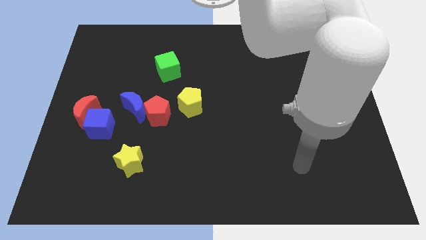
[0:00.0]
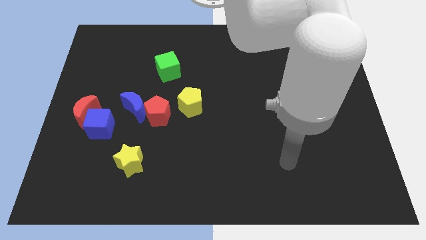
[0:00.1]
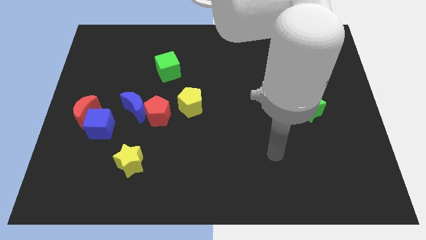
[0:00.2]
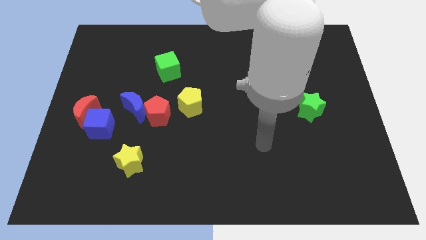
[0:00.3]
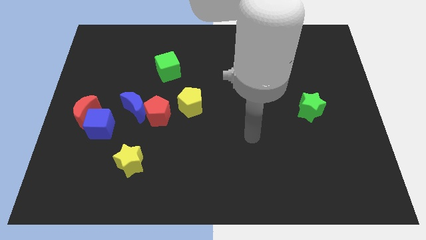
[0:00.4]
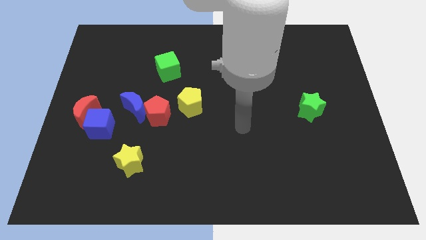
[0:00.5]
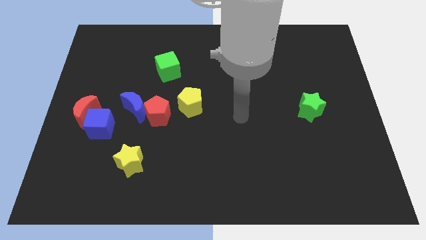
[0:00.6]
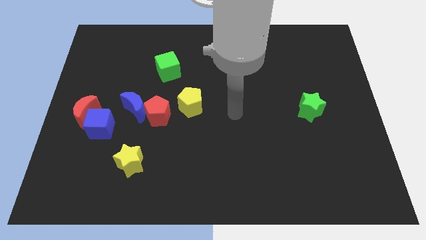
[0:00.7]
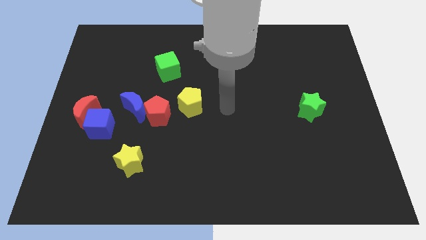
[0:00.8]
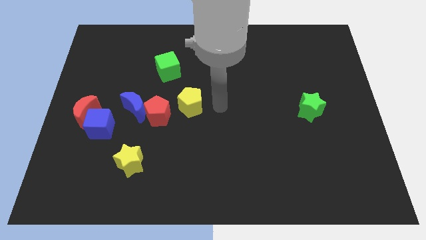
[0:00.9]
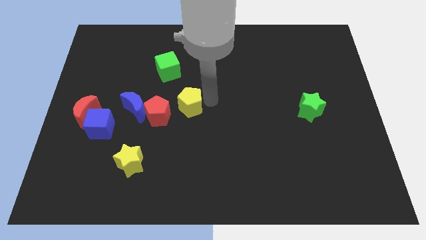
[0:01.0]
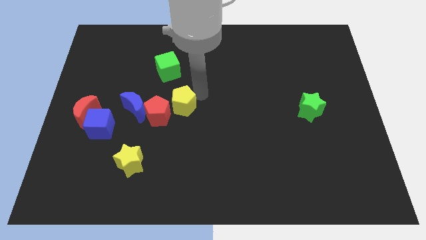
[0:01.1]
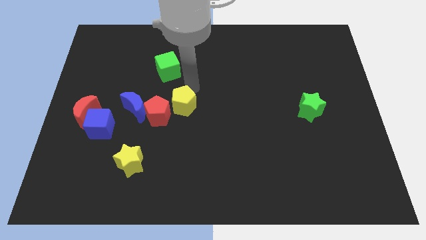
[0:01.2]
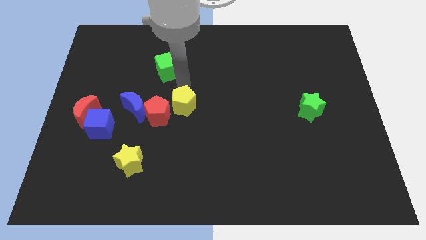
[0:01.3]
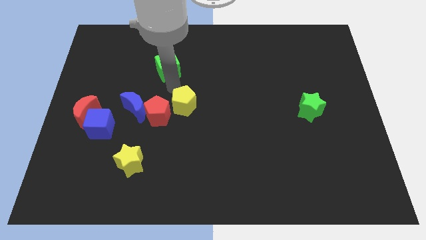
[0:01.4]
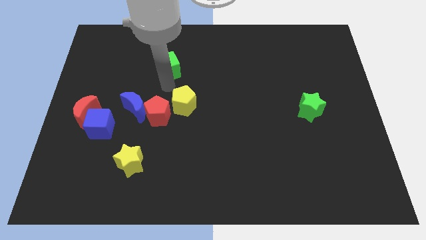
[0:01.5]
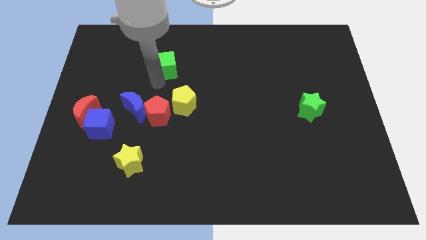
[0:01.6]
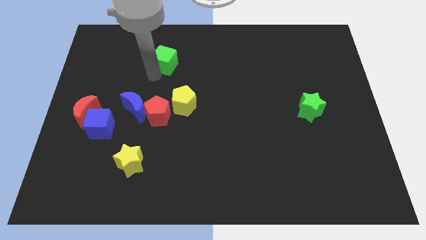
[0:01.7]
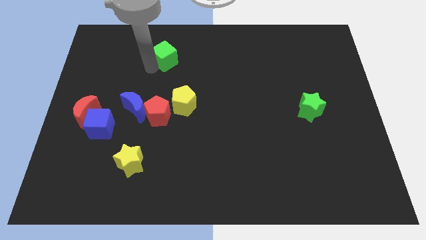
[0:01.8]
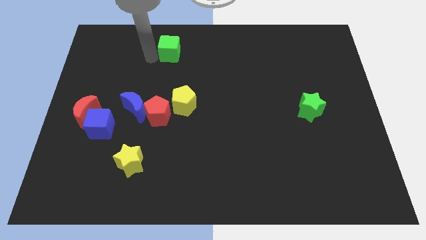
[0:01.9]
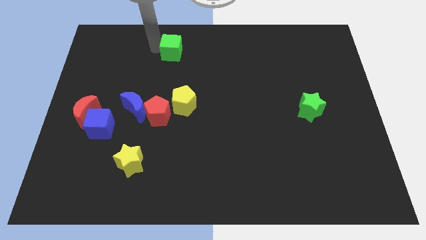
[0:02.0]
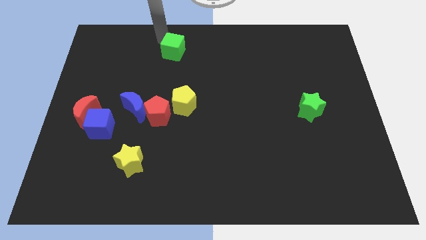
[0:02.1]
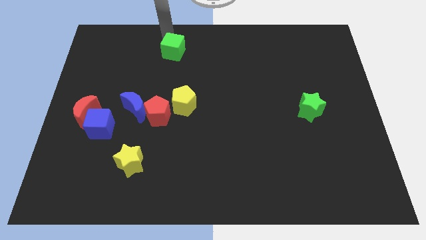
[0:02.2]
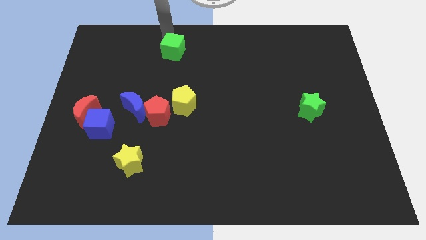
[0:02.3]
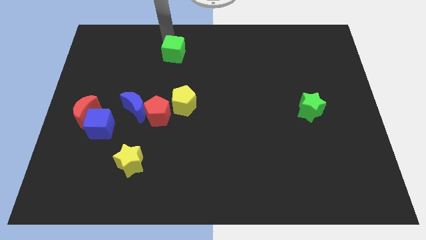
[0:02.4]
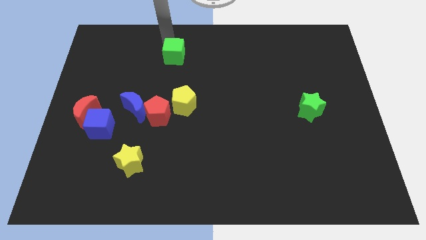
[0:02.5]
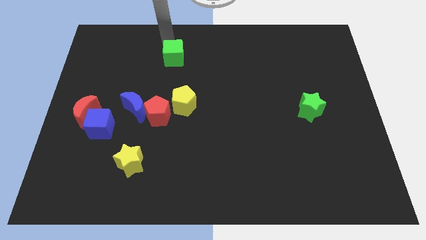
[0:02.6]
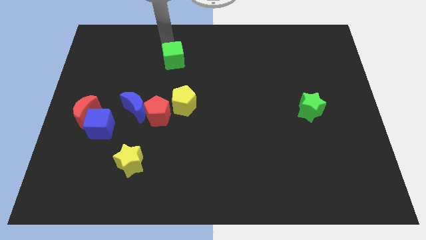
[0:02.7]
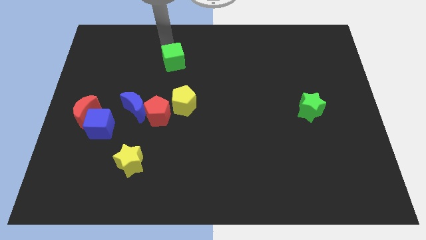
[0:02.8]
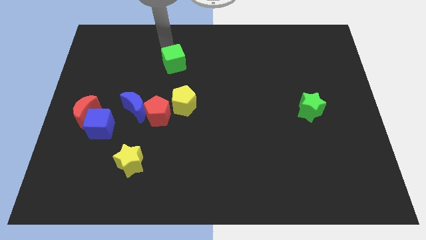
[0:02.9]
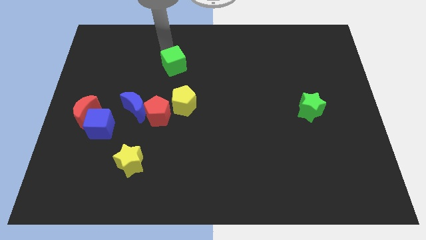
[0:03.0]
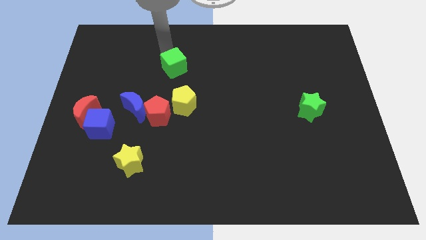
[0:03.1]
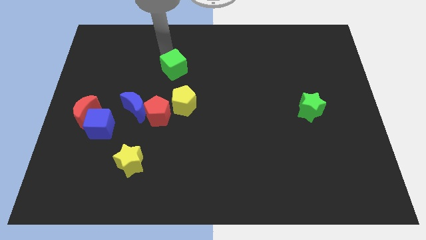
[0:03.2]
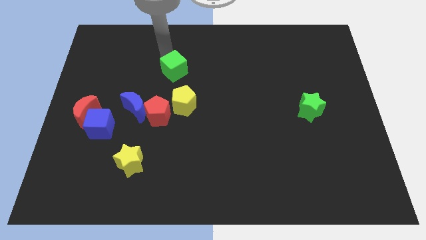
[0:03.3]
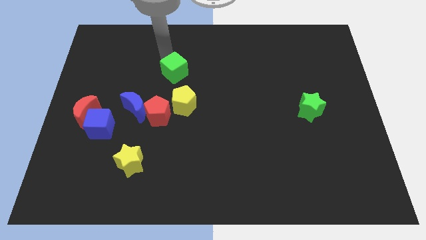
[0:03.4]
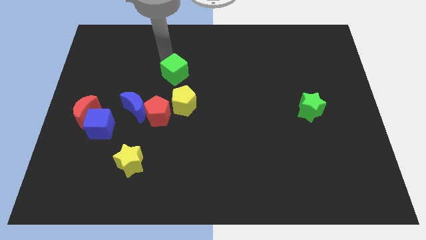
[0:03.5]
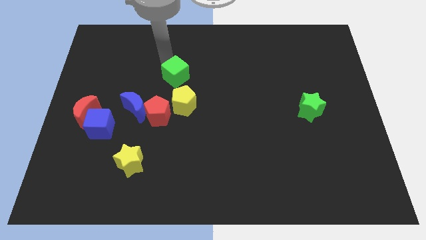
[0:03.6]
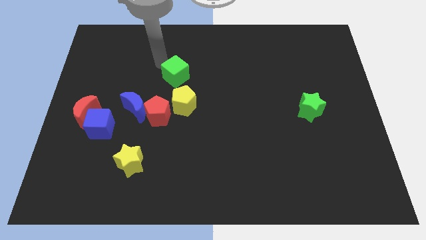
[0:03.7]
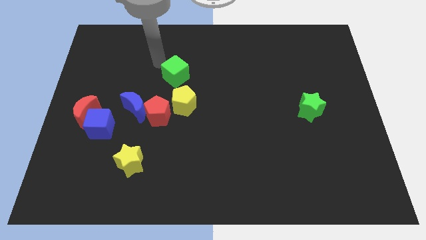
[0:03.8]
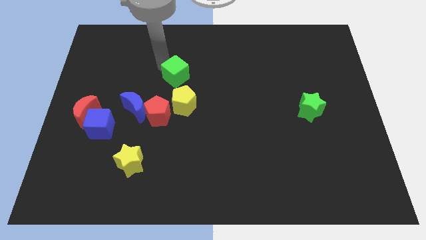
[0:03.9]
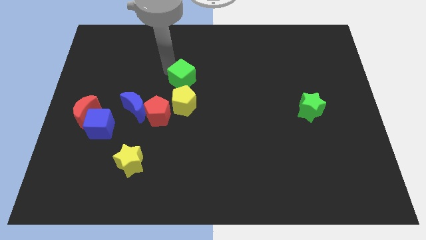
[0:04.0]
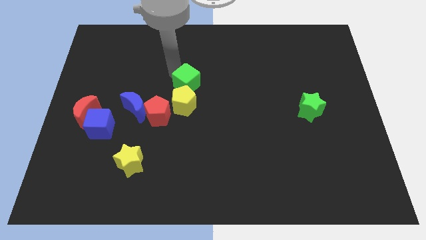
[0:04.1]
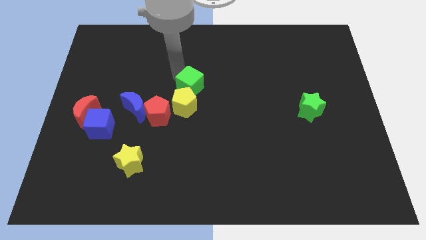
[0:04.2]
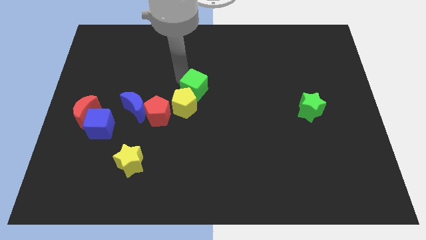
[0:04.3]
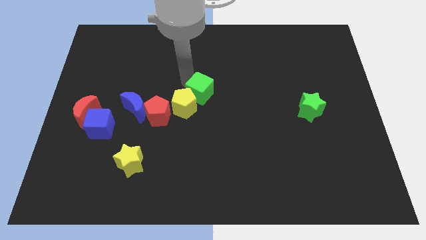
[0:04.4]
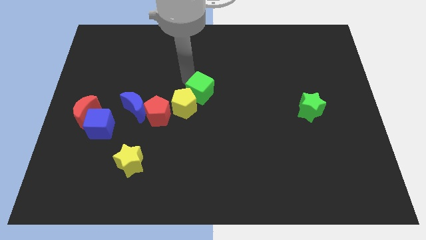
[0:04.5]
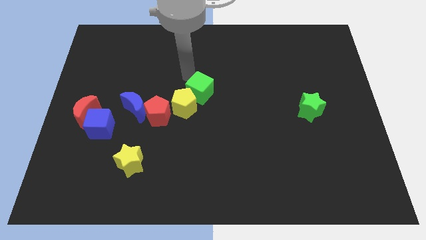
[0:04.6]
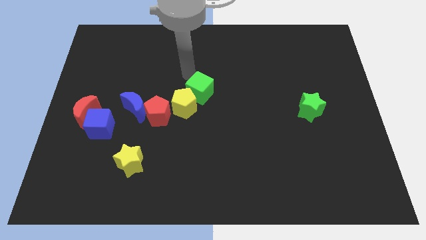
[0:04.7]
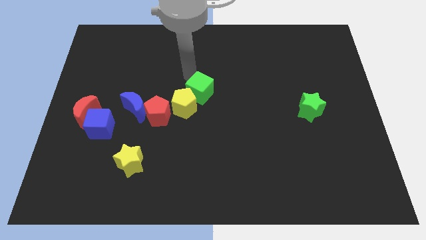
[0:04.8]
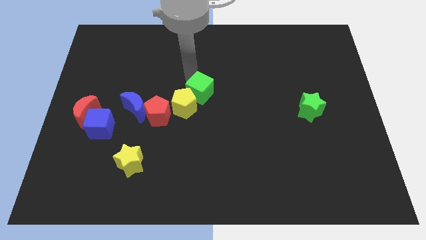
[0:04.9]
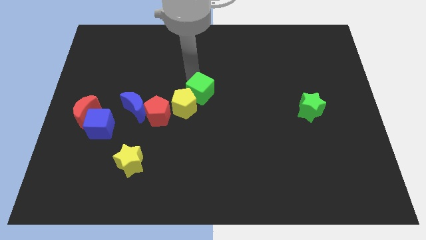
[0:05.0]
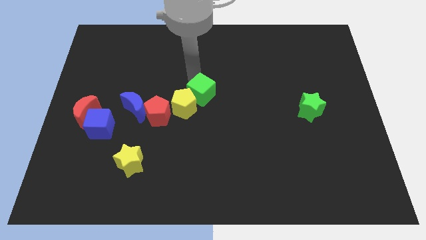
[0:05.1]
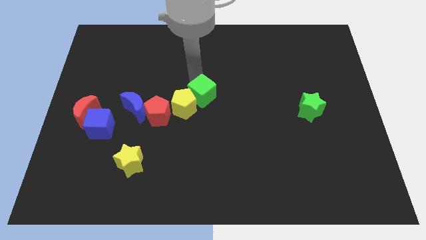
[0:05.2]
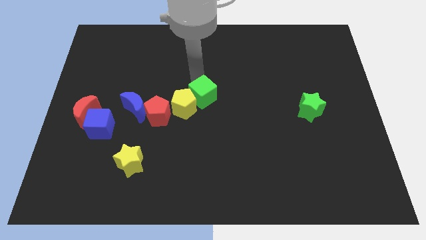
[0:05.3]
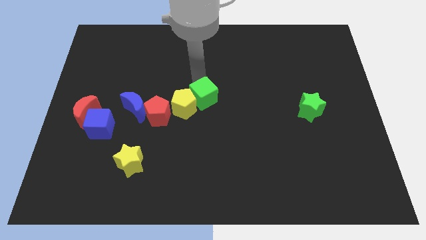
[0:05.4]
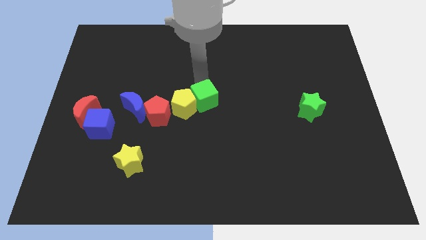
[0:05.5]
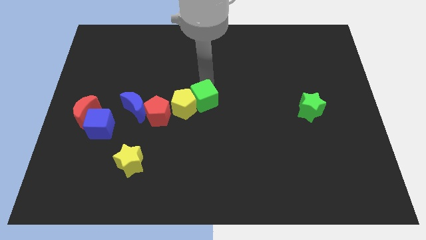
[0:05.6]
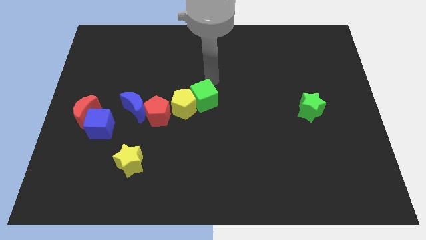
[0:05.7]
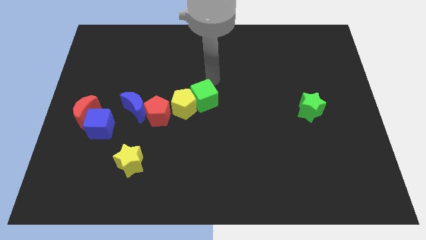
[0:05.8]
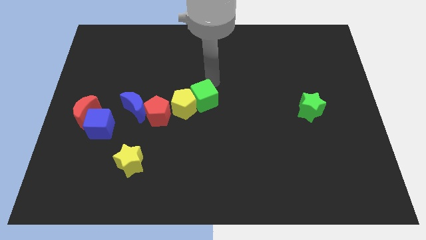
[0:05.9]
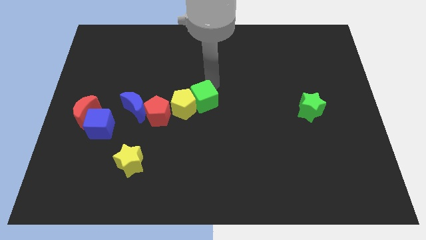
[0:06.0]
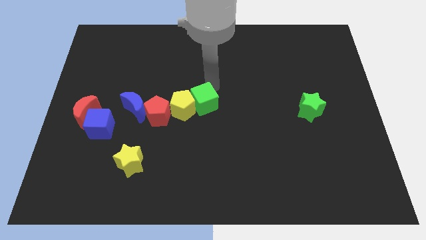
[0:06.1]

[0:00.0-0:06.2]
slightly push the green cube down

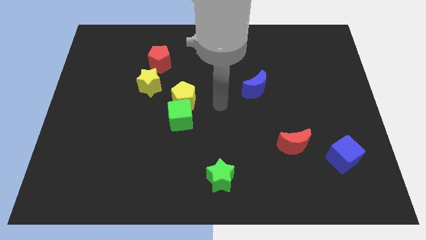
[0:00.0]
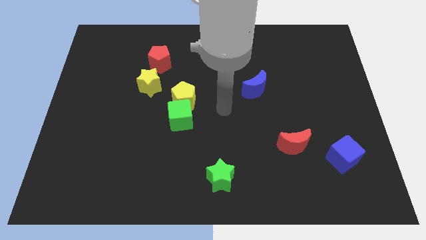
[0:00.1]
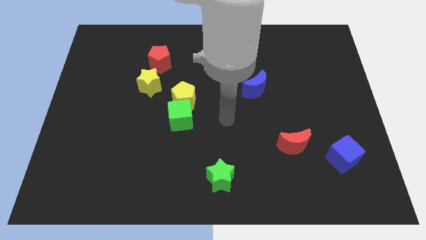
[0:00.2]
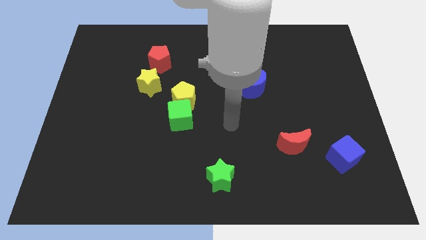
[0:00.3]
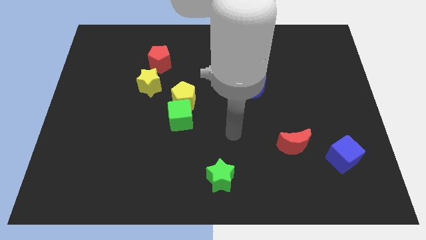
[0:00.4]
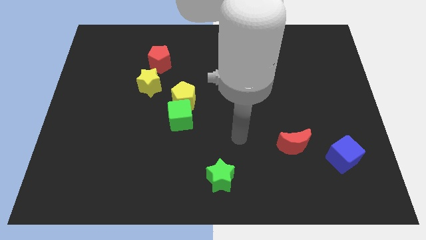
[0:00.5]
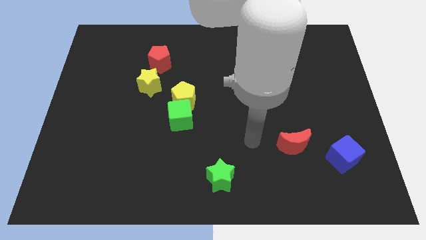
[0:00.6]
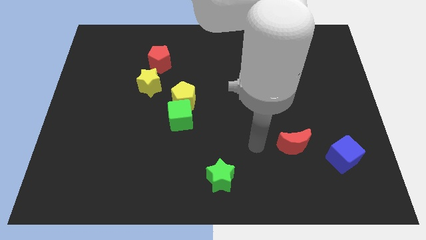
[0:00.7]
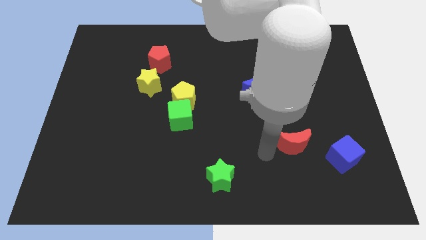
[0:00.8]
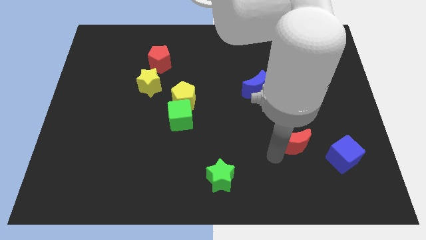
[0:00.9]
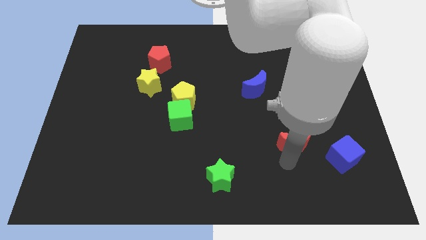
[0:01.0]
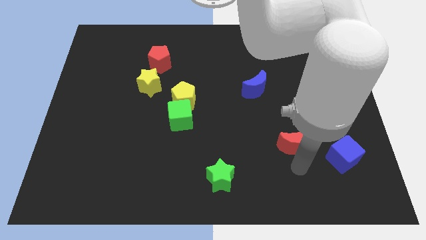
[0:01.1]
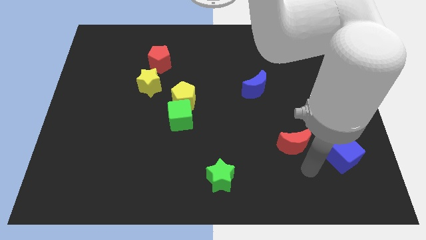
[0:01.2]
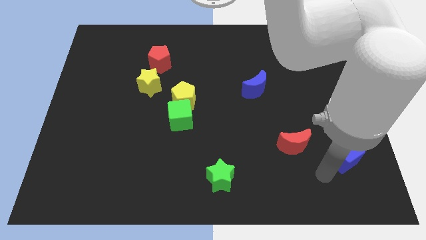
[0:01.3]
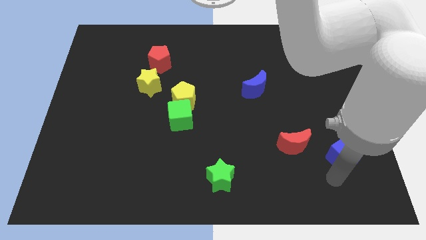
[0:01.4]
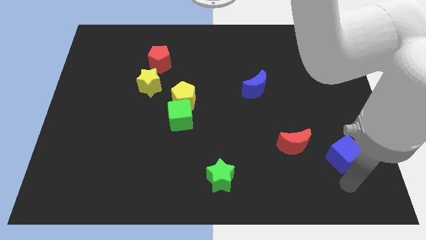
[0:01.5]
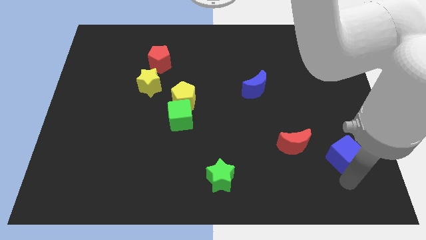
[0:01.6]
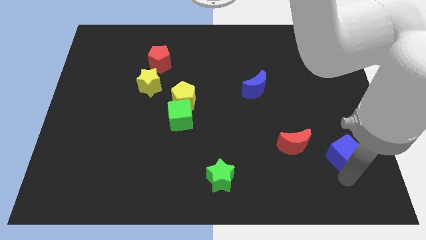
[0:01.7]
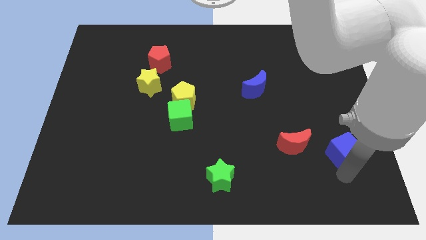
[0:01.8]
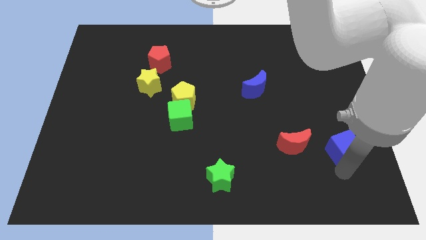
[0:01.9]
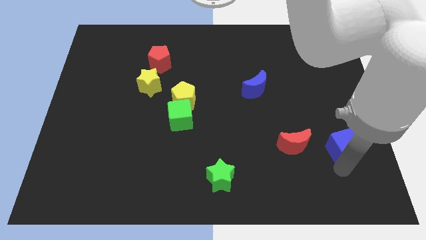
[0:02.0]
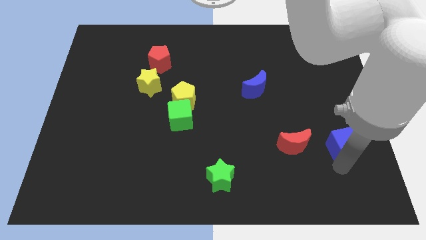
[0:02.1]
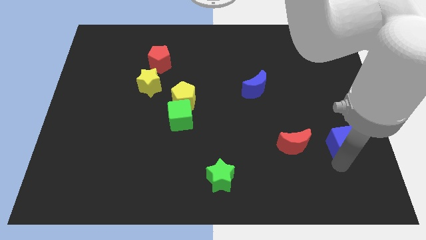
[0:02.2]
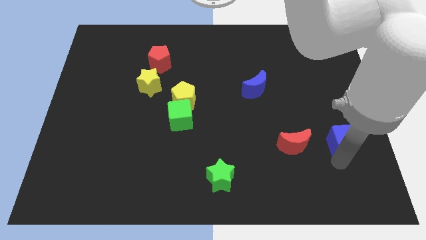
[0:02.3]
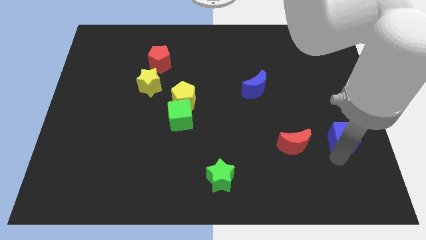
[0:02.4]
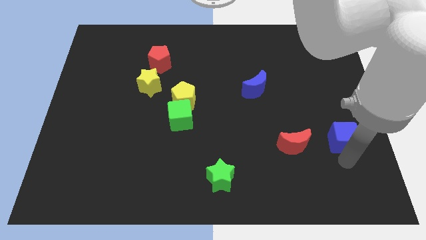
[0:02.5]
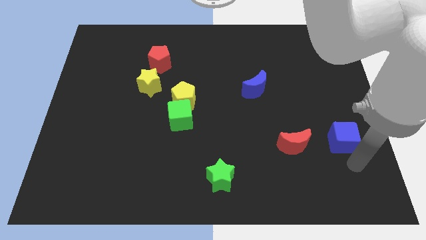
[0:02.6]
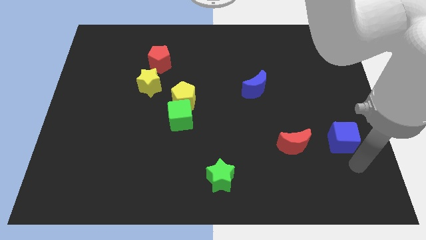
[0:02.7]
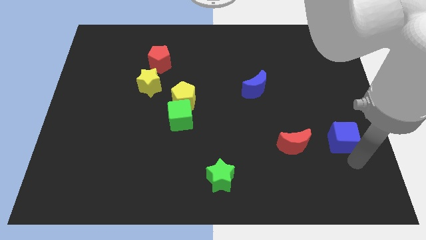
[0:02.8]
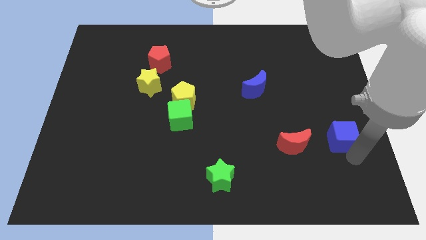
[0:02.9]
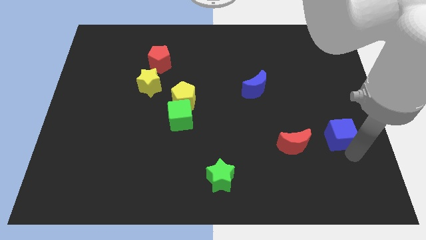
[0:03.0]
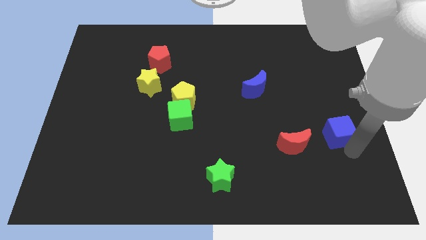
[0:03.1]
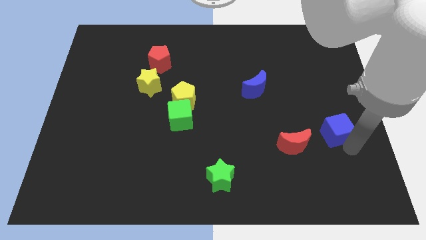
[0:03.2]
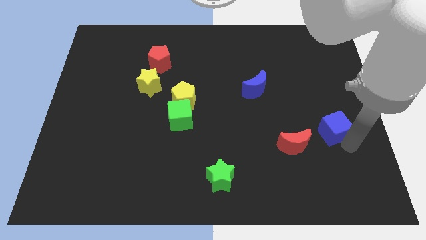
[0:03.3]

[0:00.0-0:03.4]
slightly push the blue cube up
